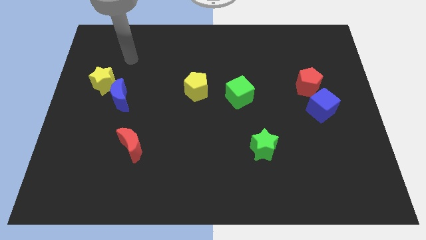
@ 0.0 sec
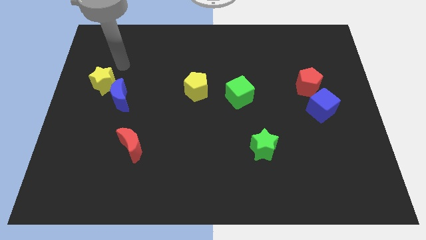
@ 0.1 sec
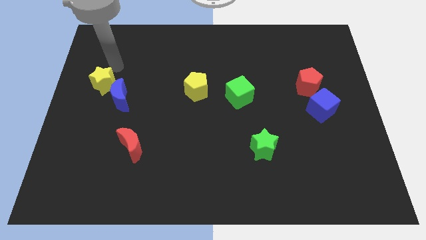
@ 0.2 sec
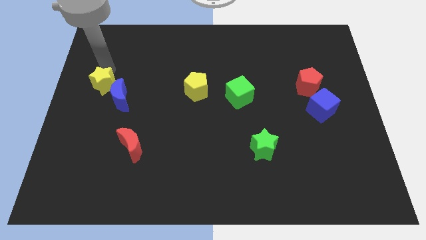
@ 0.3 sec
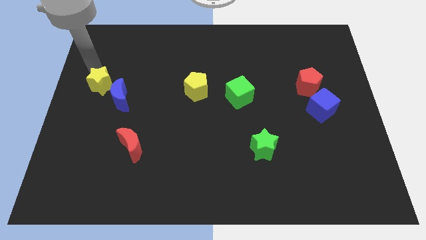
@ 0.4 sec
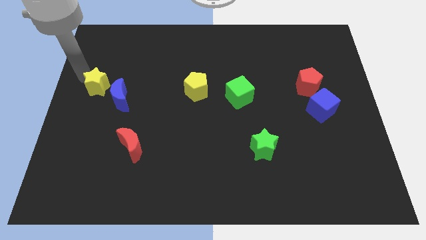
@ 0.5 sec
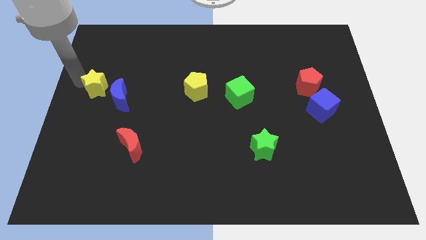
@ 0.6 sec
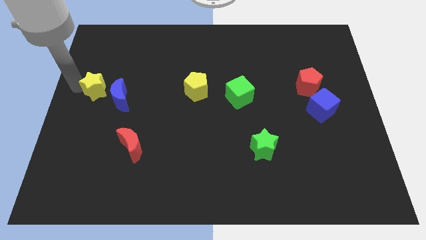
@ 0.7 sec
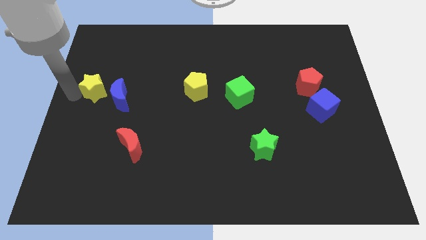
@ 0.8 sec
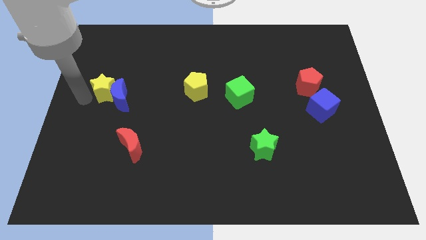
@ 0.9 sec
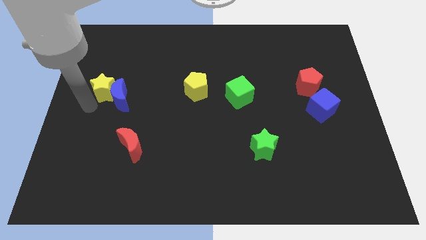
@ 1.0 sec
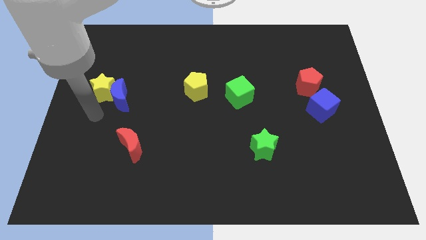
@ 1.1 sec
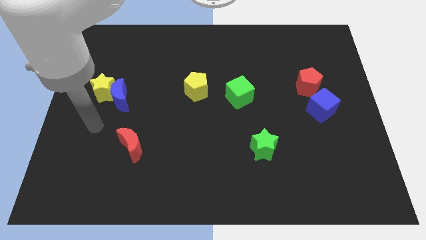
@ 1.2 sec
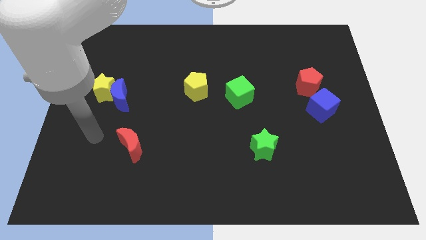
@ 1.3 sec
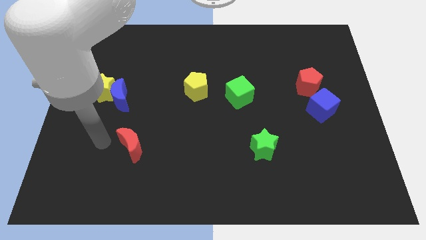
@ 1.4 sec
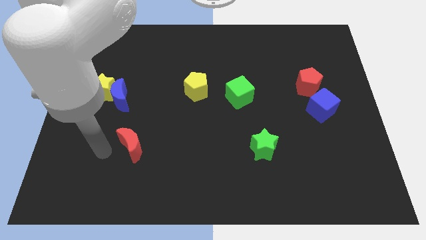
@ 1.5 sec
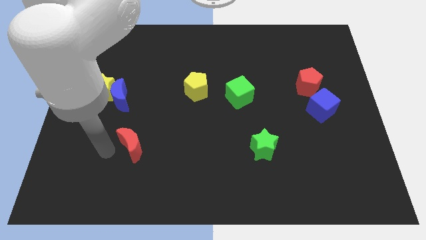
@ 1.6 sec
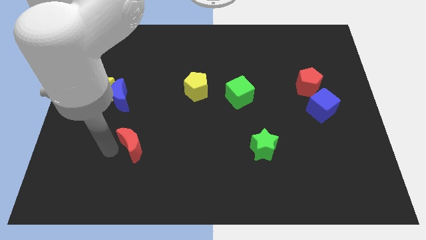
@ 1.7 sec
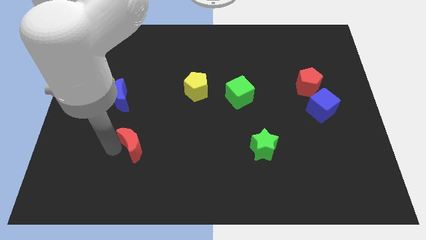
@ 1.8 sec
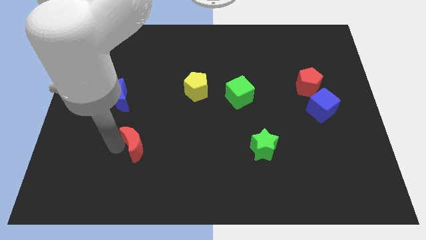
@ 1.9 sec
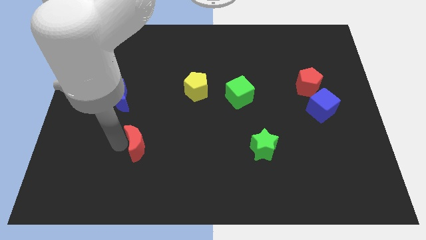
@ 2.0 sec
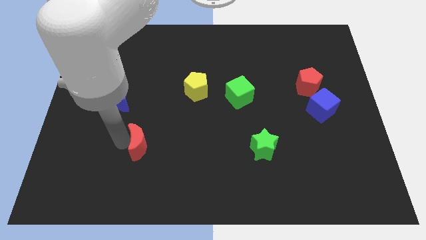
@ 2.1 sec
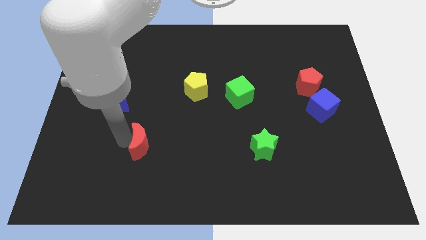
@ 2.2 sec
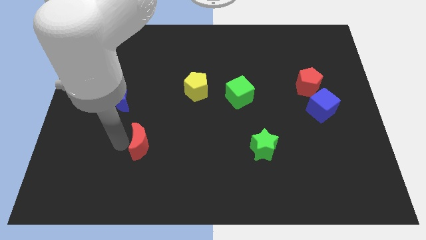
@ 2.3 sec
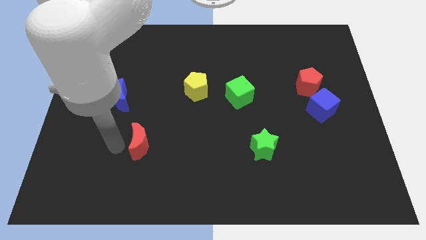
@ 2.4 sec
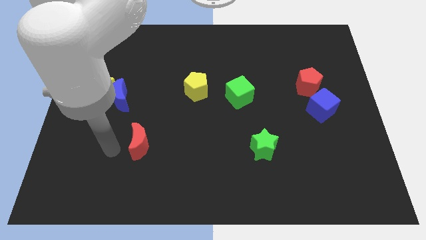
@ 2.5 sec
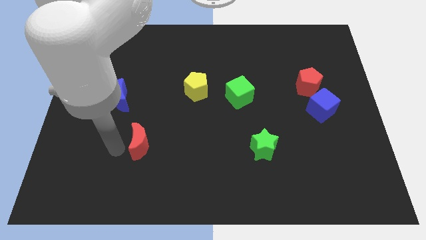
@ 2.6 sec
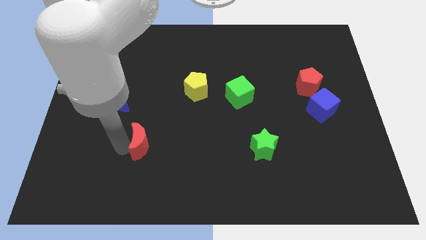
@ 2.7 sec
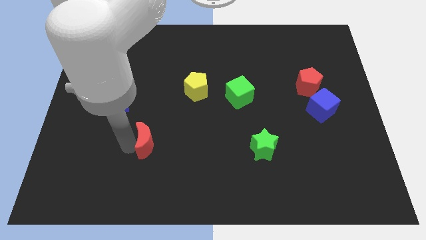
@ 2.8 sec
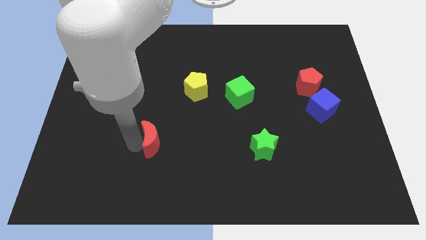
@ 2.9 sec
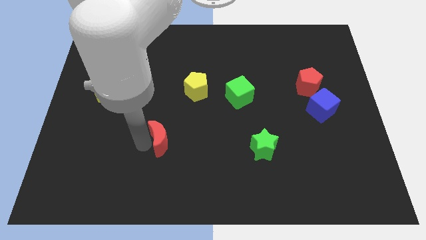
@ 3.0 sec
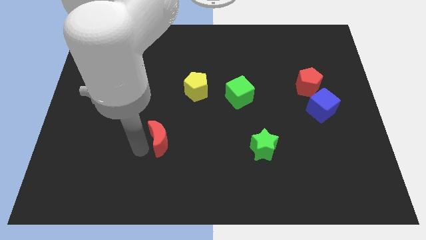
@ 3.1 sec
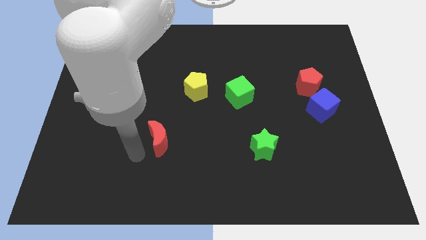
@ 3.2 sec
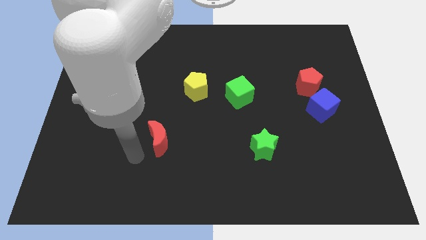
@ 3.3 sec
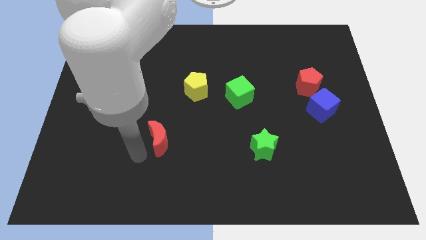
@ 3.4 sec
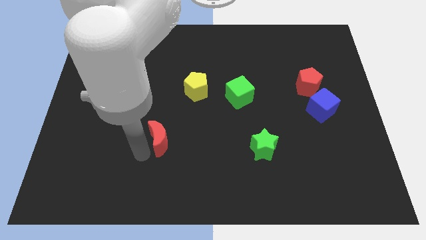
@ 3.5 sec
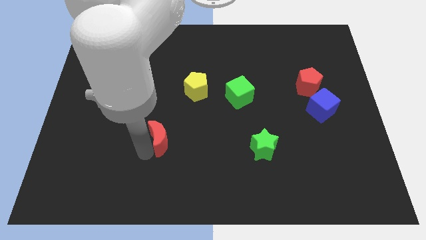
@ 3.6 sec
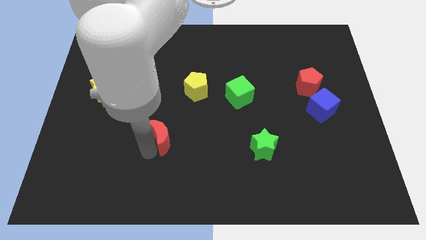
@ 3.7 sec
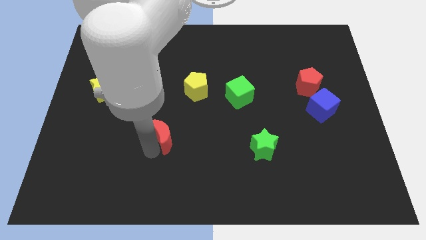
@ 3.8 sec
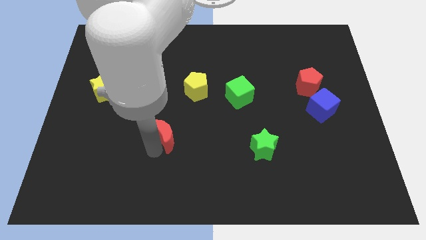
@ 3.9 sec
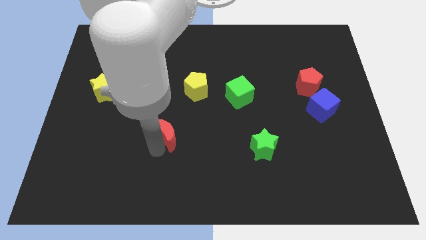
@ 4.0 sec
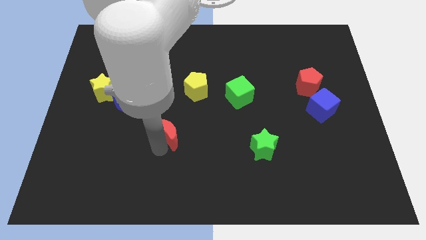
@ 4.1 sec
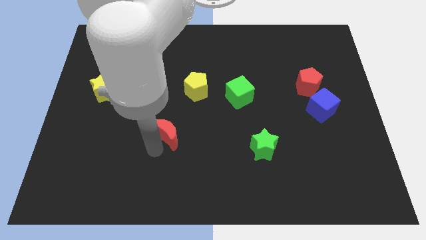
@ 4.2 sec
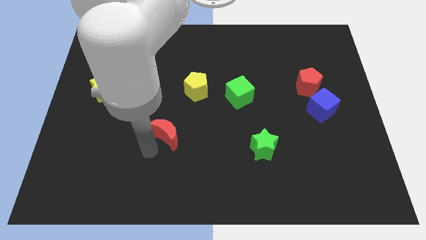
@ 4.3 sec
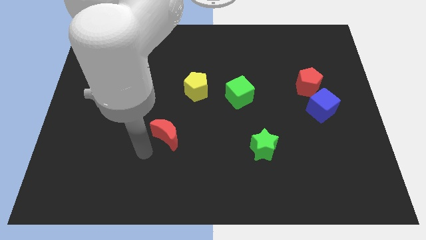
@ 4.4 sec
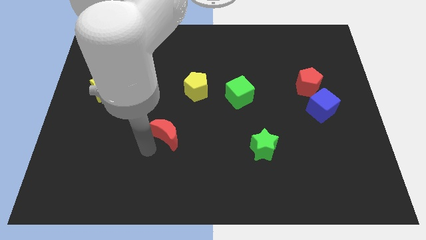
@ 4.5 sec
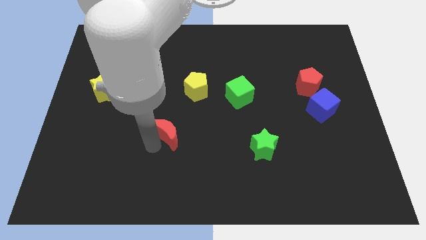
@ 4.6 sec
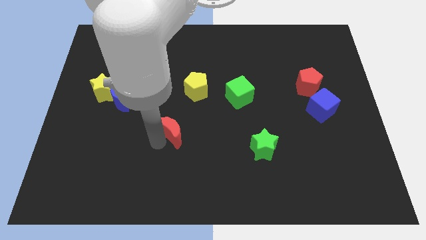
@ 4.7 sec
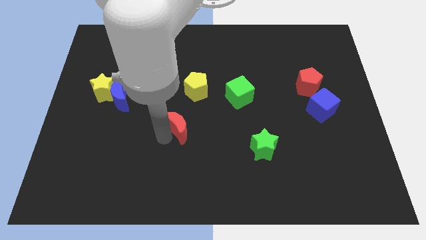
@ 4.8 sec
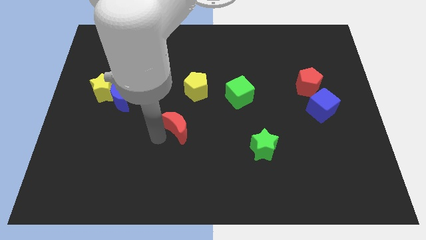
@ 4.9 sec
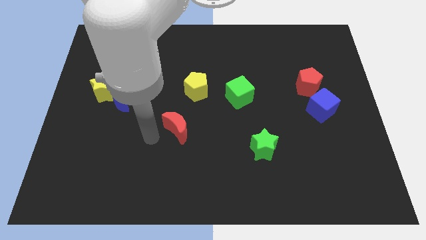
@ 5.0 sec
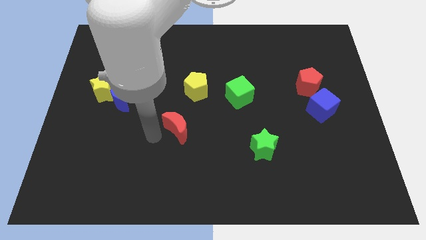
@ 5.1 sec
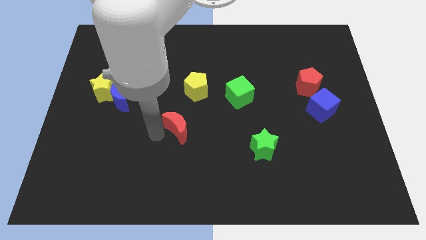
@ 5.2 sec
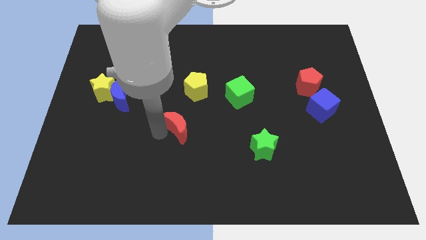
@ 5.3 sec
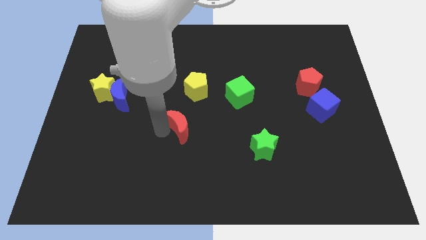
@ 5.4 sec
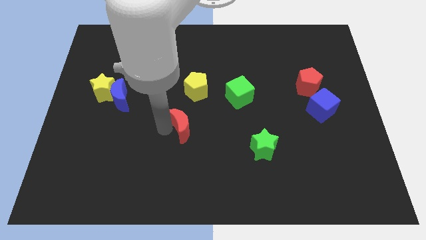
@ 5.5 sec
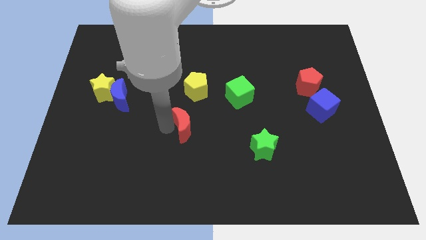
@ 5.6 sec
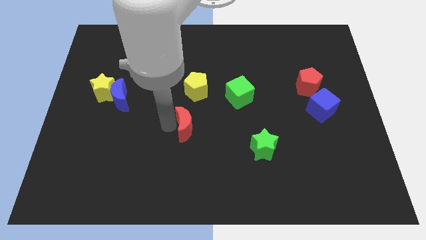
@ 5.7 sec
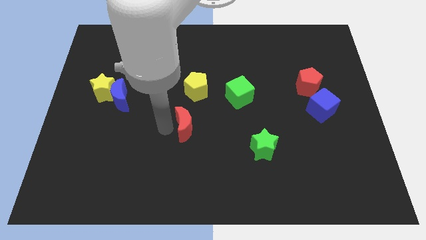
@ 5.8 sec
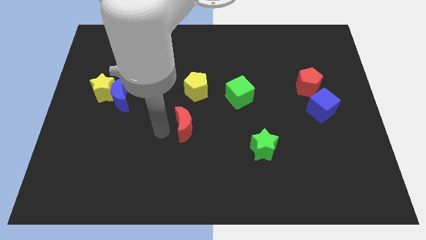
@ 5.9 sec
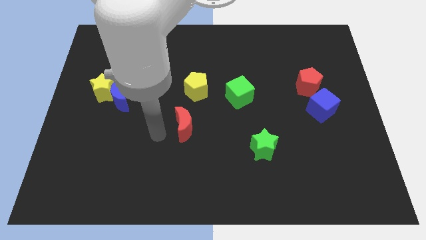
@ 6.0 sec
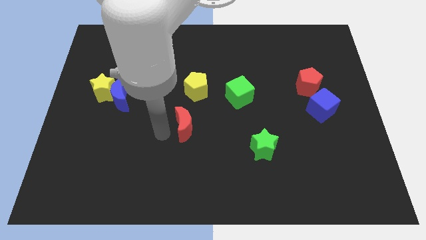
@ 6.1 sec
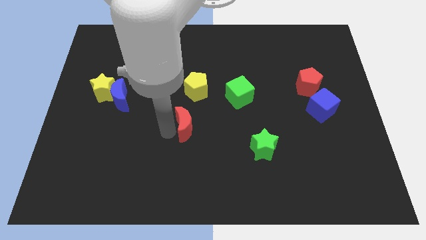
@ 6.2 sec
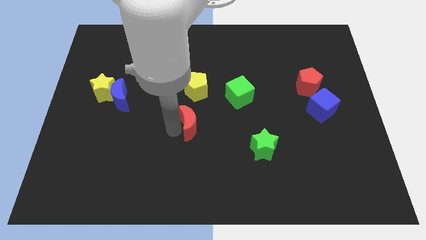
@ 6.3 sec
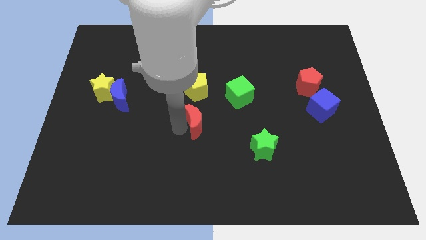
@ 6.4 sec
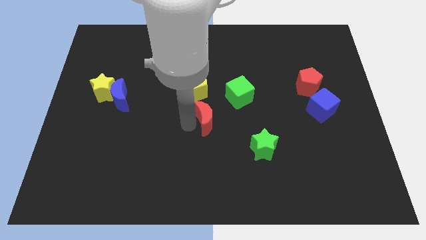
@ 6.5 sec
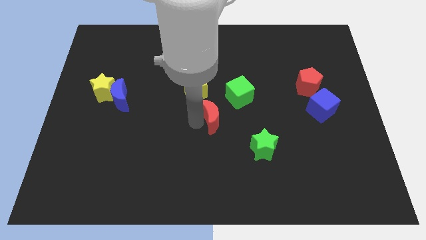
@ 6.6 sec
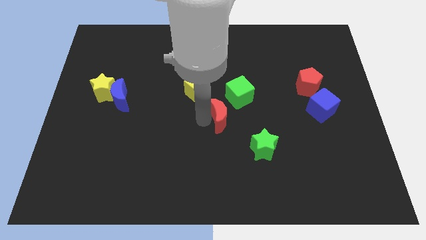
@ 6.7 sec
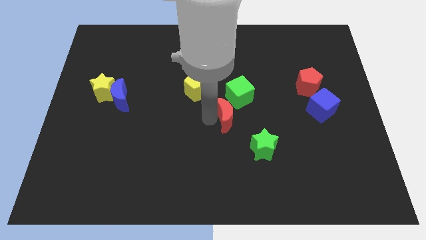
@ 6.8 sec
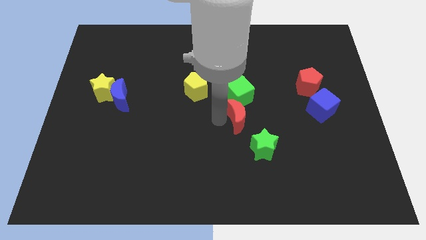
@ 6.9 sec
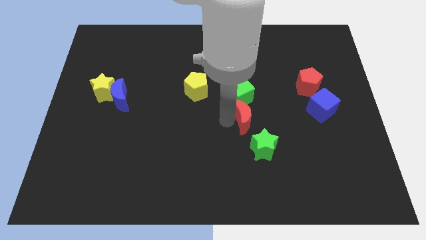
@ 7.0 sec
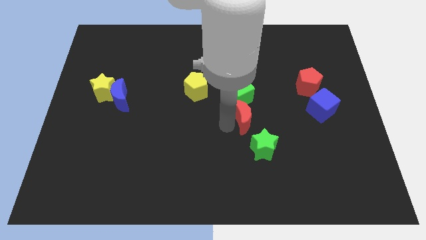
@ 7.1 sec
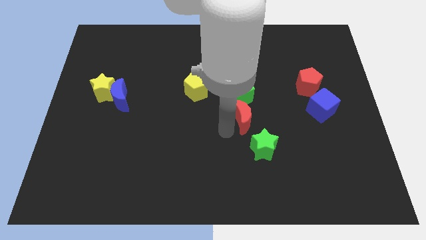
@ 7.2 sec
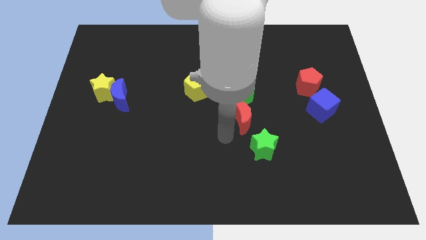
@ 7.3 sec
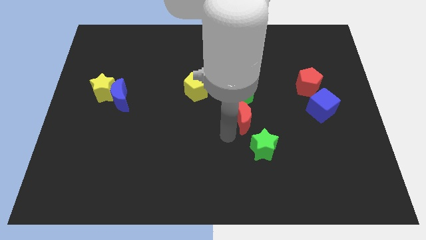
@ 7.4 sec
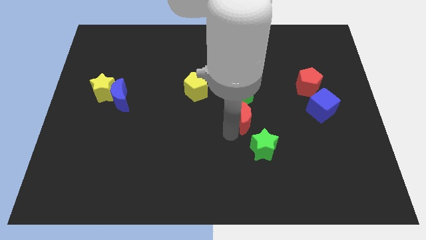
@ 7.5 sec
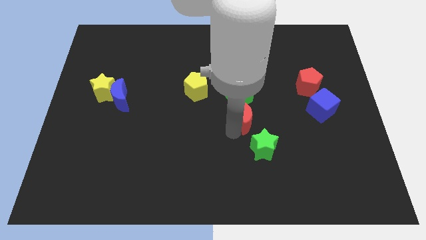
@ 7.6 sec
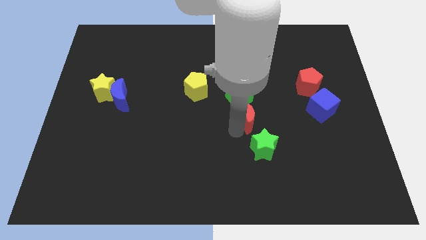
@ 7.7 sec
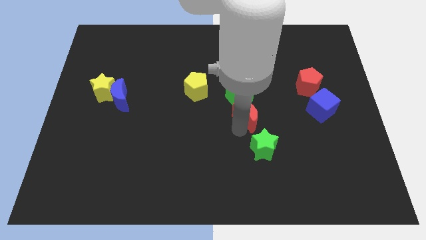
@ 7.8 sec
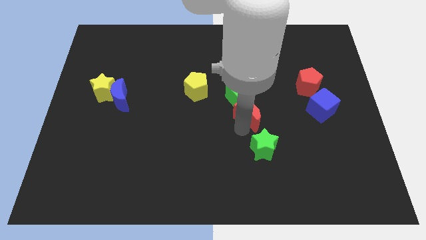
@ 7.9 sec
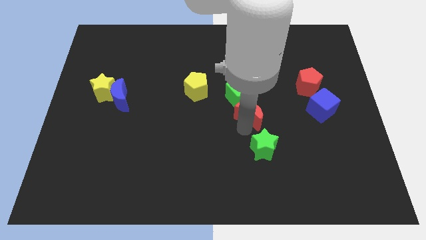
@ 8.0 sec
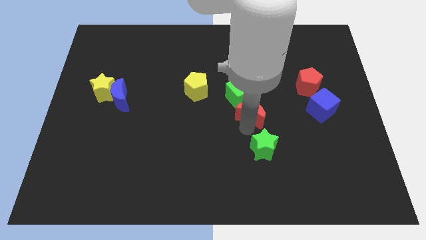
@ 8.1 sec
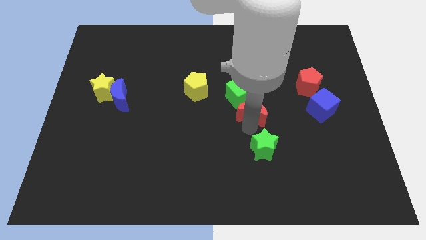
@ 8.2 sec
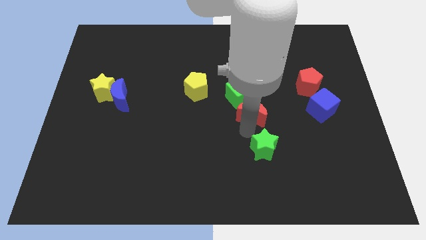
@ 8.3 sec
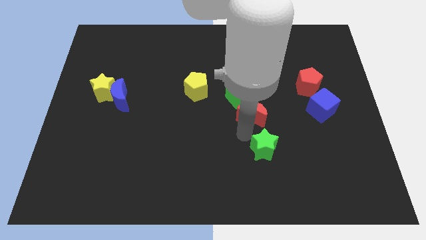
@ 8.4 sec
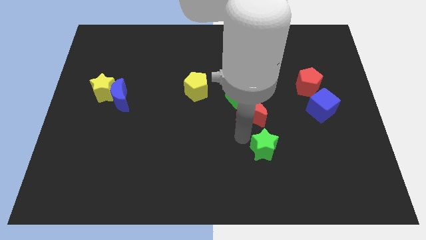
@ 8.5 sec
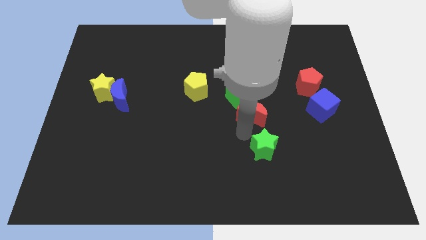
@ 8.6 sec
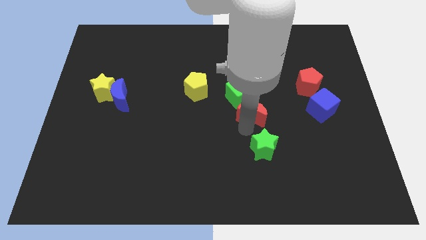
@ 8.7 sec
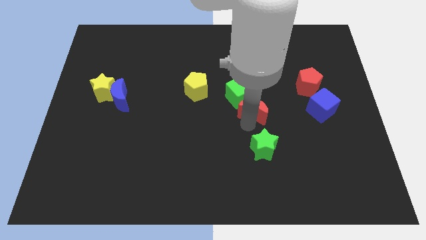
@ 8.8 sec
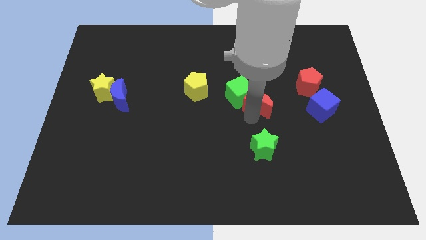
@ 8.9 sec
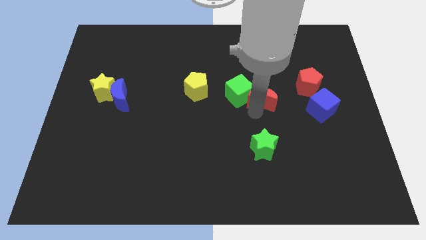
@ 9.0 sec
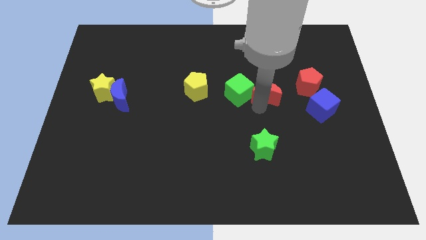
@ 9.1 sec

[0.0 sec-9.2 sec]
push the red moon left of the red pentagon
